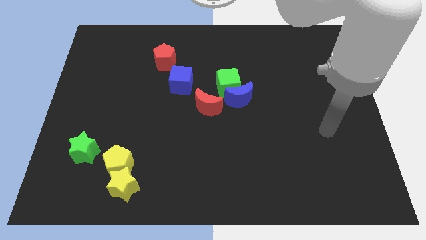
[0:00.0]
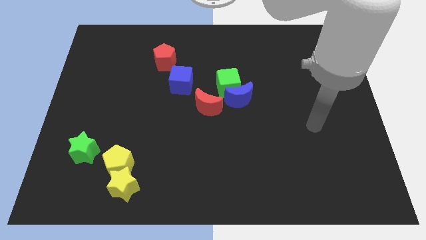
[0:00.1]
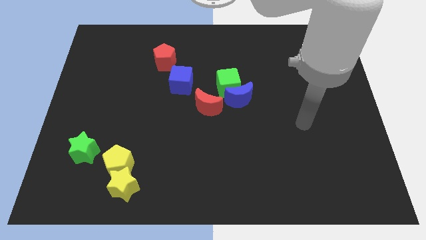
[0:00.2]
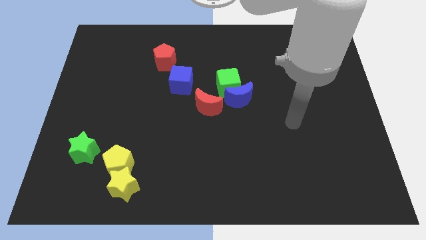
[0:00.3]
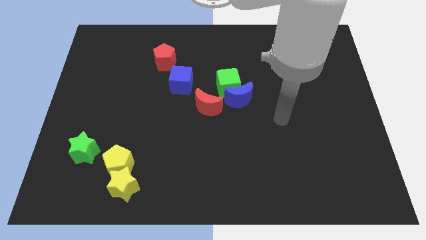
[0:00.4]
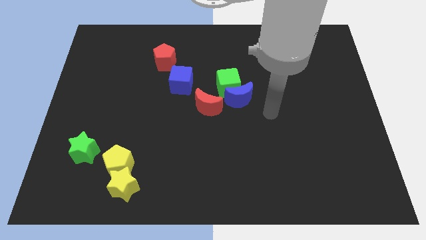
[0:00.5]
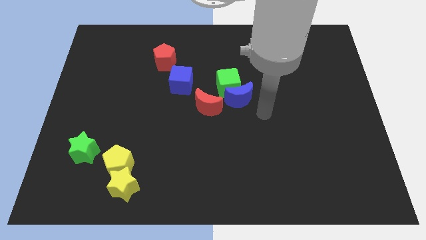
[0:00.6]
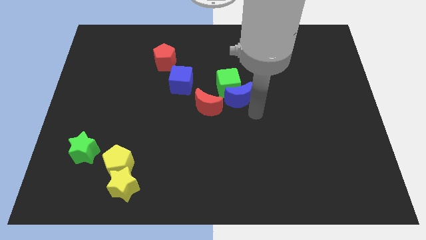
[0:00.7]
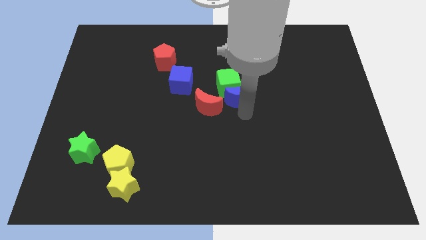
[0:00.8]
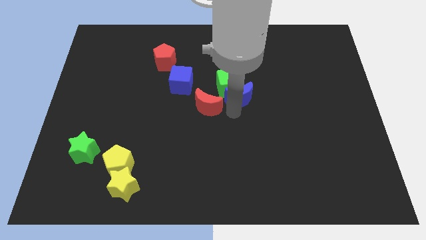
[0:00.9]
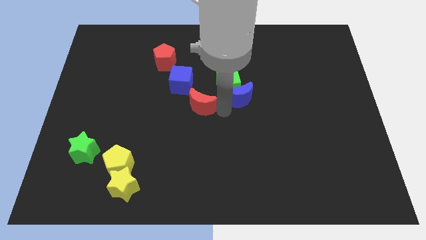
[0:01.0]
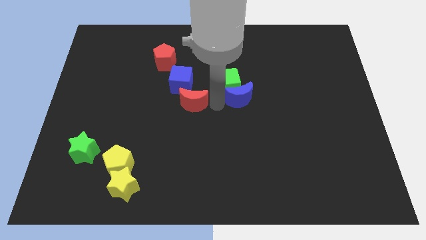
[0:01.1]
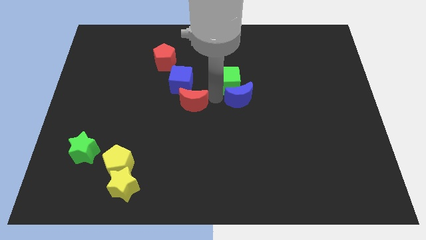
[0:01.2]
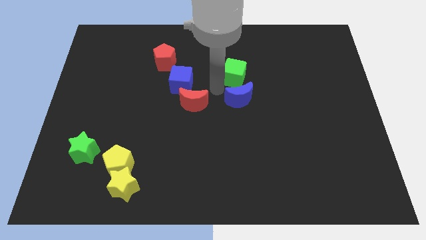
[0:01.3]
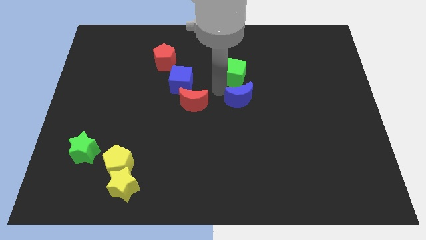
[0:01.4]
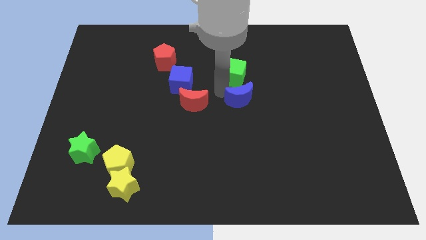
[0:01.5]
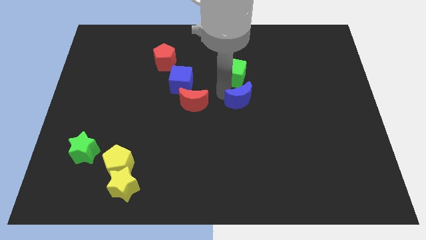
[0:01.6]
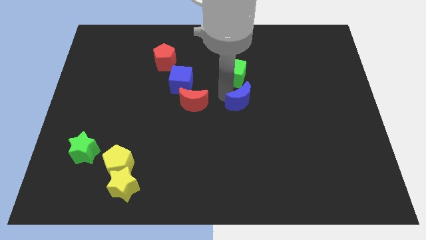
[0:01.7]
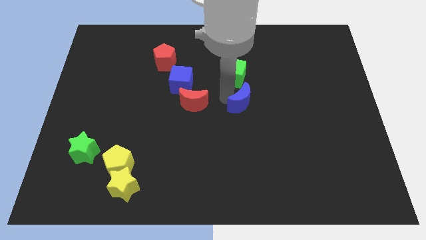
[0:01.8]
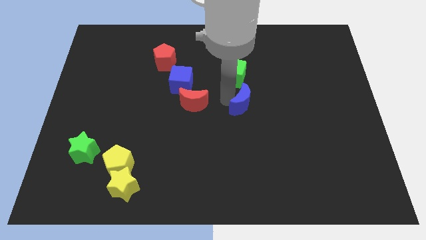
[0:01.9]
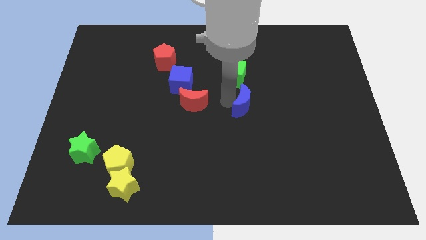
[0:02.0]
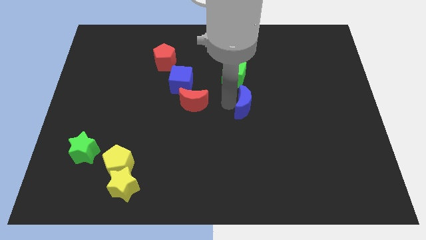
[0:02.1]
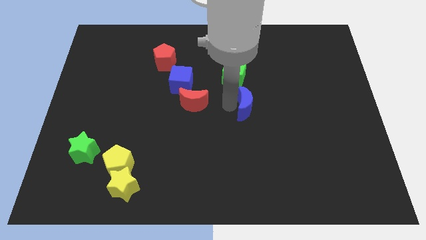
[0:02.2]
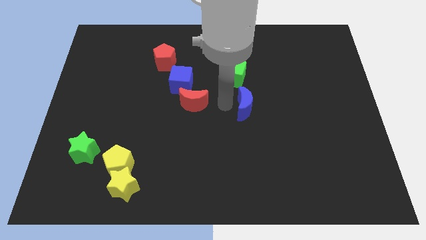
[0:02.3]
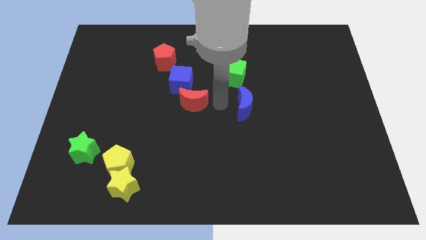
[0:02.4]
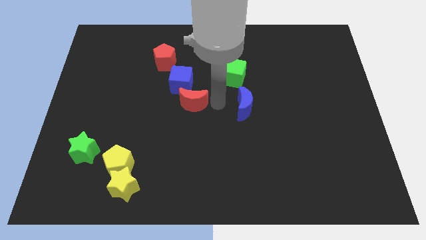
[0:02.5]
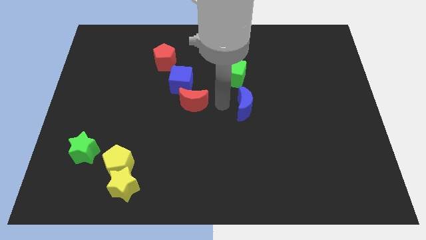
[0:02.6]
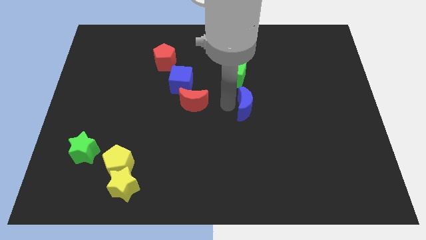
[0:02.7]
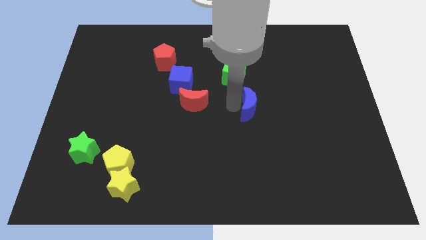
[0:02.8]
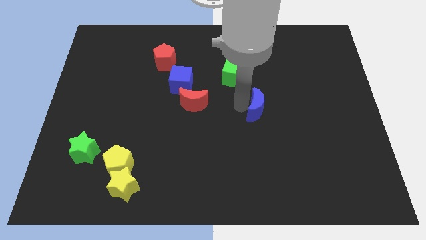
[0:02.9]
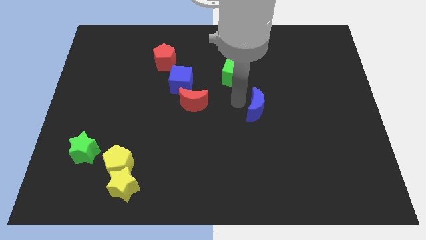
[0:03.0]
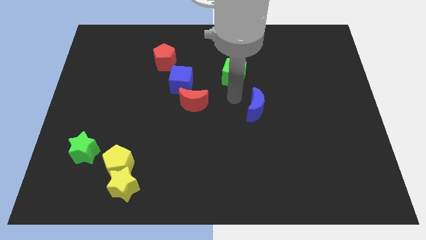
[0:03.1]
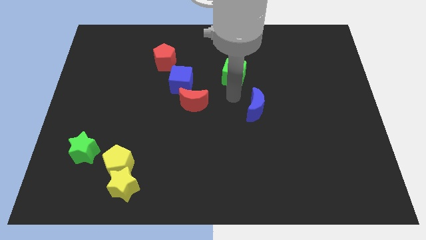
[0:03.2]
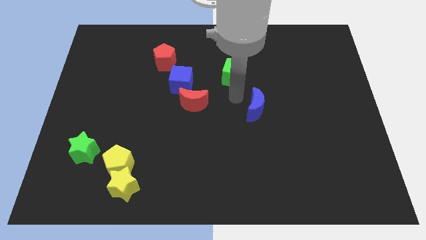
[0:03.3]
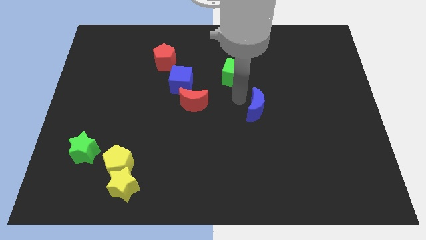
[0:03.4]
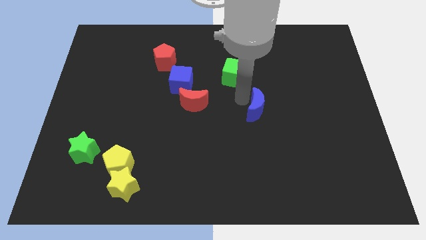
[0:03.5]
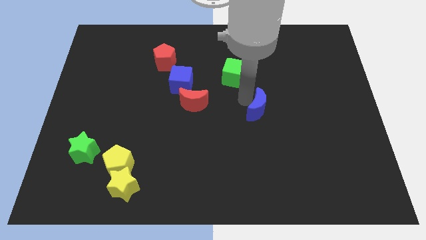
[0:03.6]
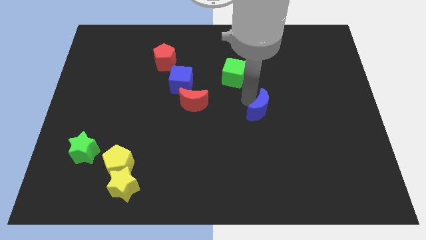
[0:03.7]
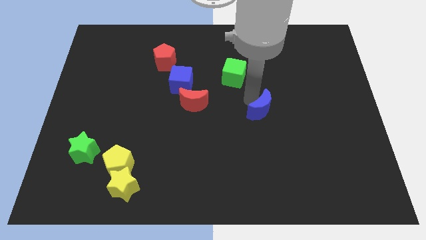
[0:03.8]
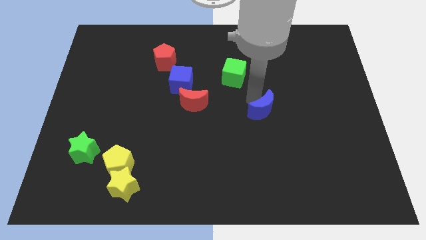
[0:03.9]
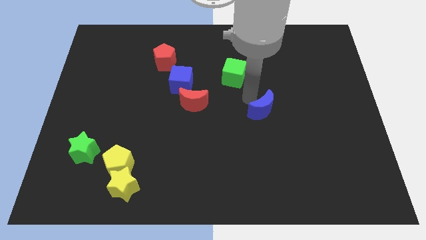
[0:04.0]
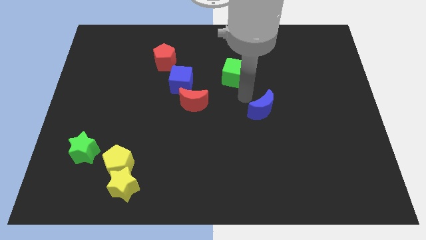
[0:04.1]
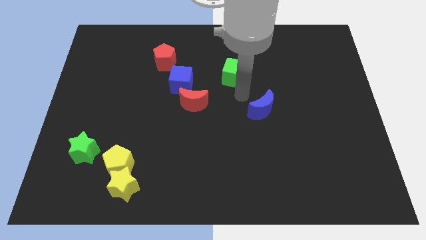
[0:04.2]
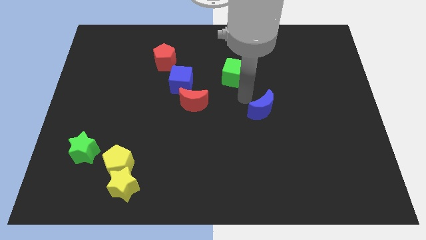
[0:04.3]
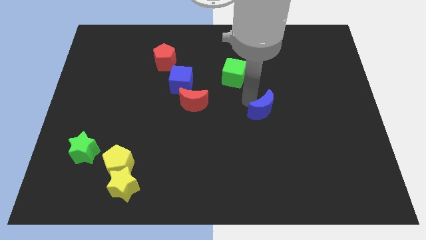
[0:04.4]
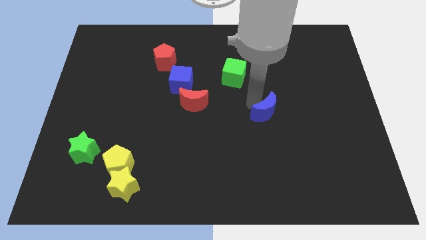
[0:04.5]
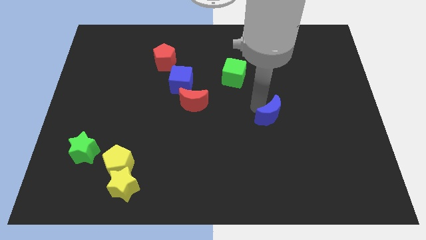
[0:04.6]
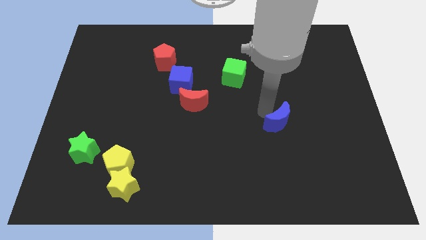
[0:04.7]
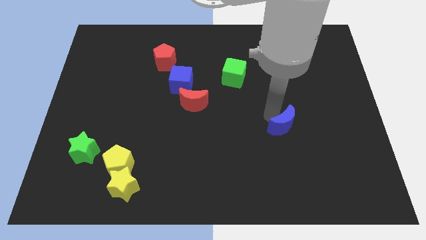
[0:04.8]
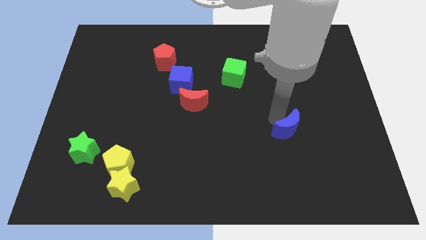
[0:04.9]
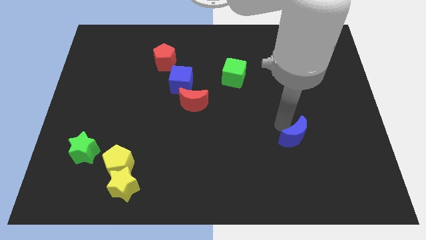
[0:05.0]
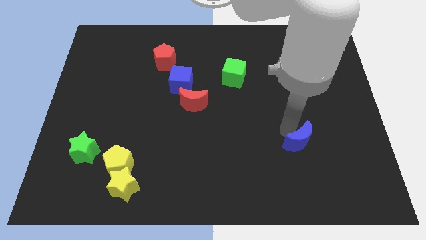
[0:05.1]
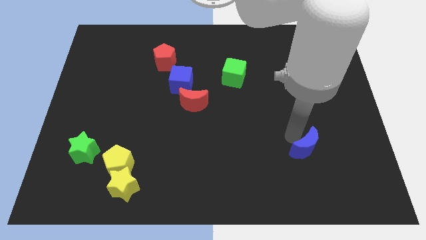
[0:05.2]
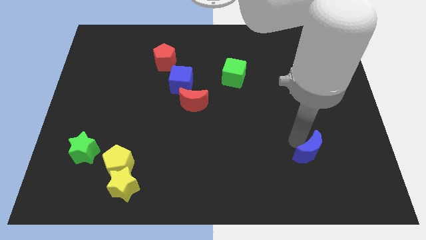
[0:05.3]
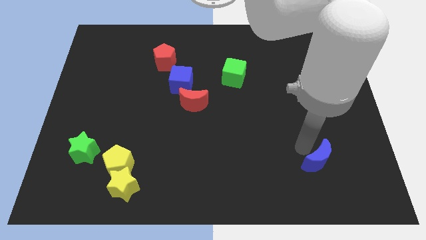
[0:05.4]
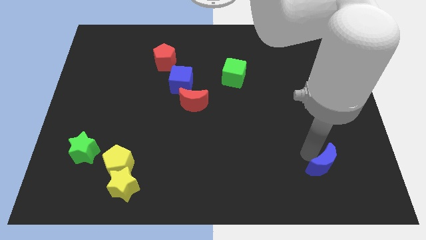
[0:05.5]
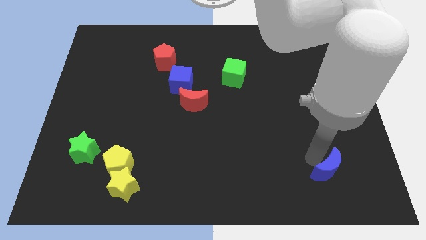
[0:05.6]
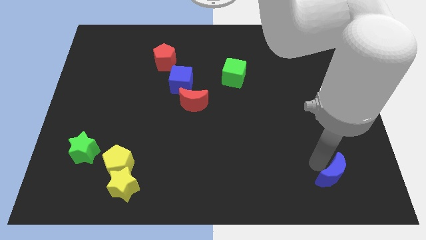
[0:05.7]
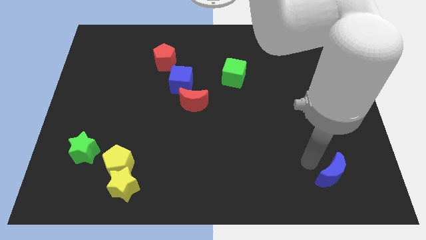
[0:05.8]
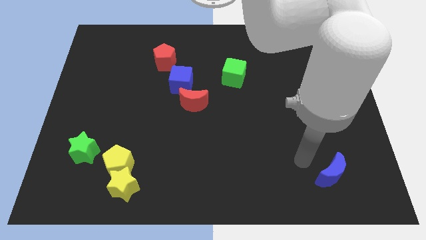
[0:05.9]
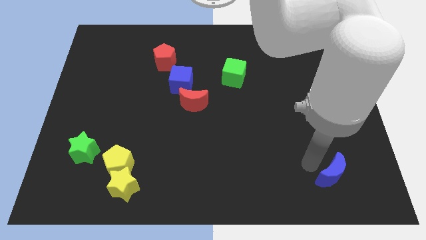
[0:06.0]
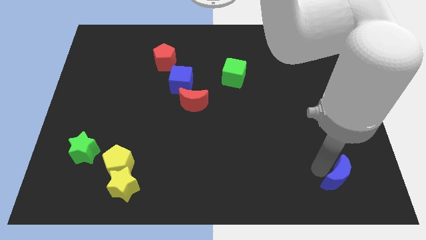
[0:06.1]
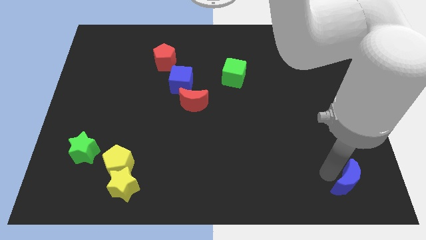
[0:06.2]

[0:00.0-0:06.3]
push the blue moon to the bottom right corner
